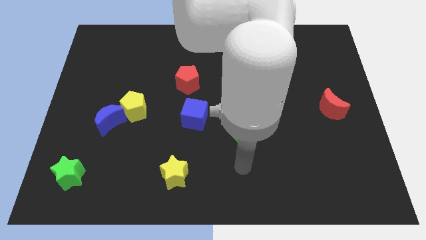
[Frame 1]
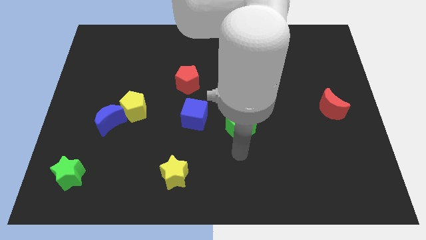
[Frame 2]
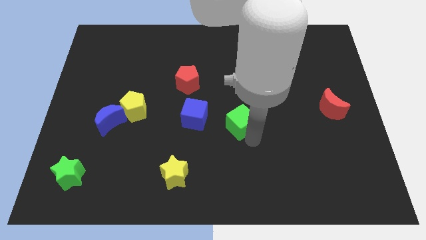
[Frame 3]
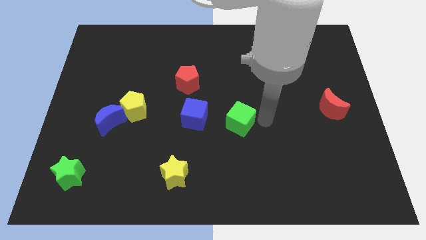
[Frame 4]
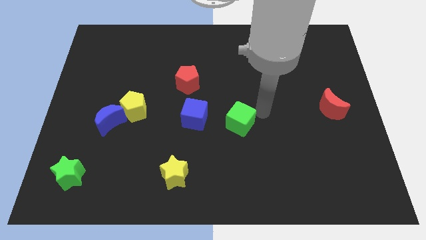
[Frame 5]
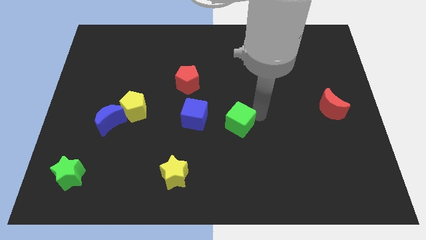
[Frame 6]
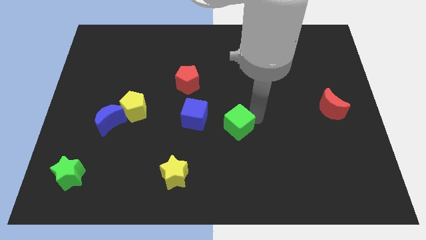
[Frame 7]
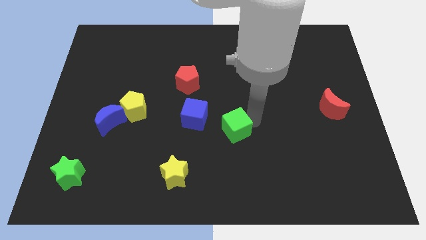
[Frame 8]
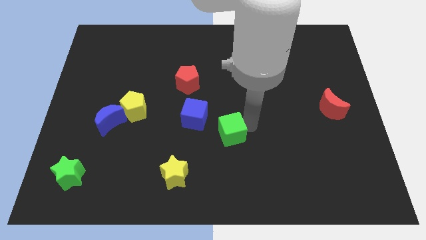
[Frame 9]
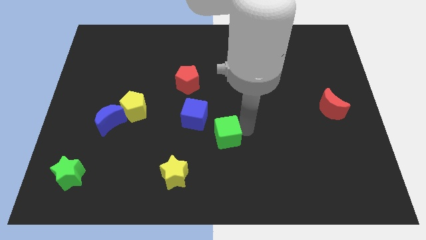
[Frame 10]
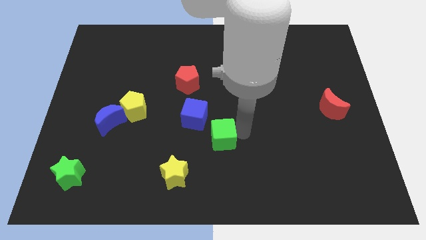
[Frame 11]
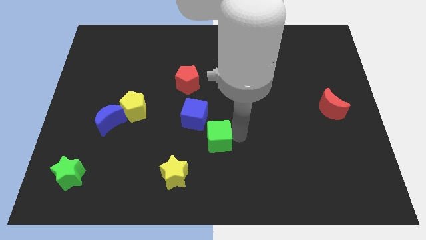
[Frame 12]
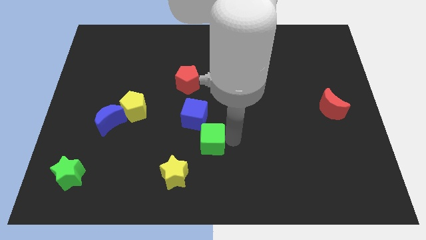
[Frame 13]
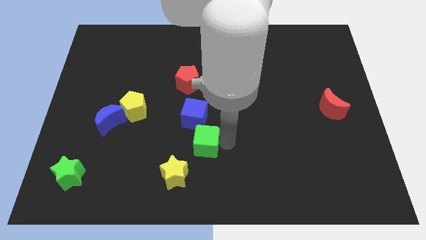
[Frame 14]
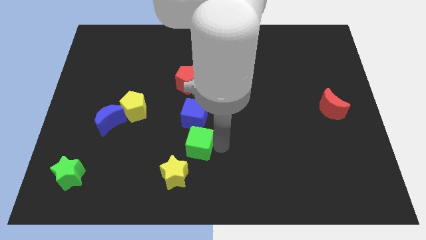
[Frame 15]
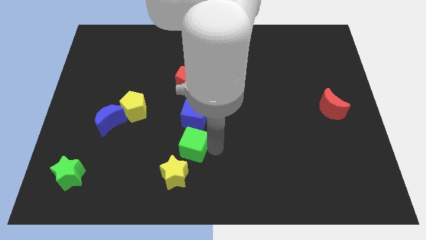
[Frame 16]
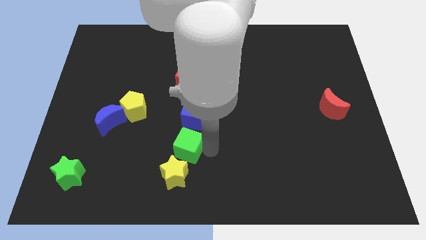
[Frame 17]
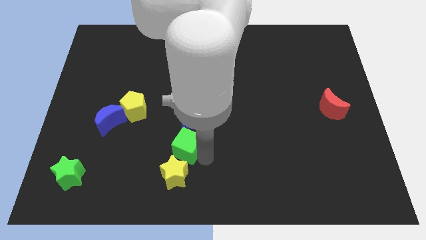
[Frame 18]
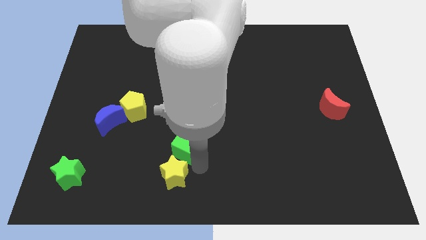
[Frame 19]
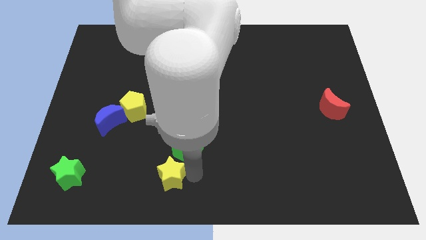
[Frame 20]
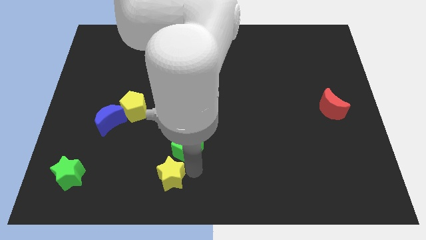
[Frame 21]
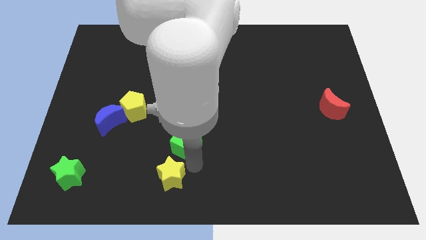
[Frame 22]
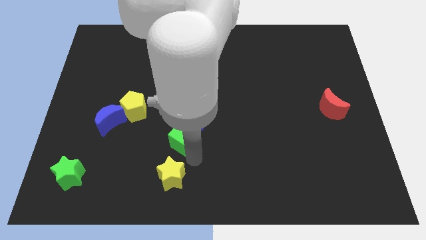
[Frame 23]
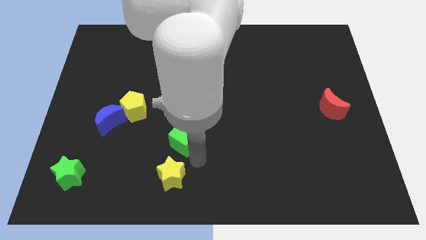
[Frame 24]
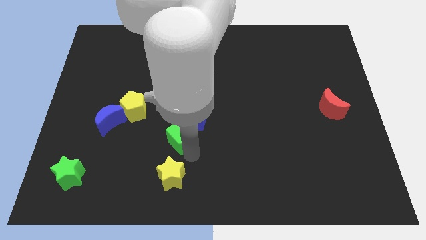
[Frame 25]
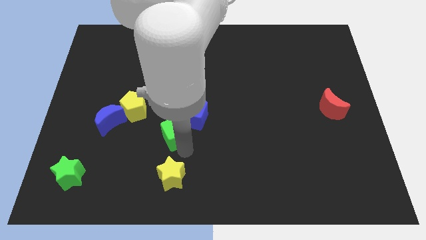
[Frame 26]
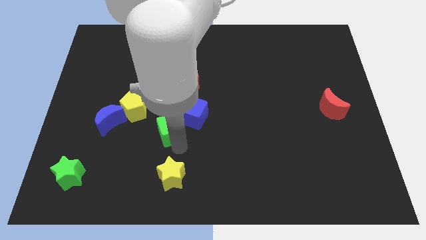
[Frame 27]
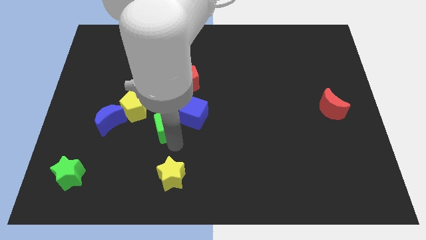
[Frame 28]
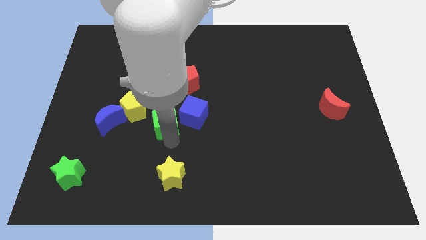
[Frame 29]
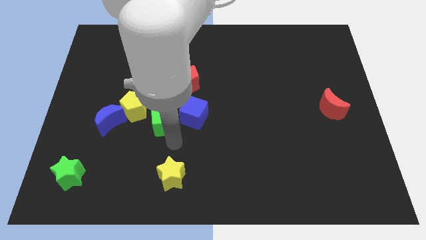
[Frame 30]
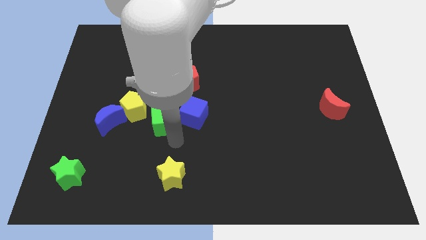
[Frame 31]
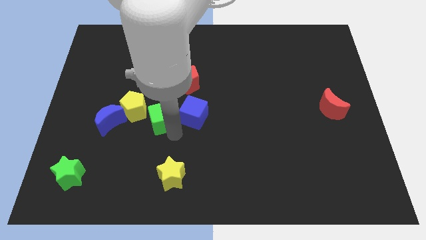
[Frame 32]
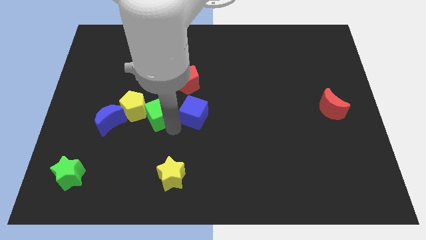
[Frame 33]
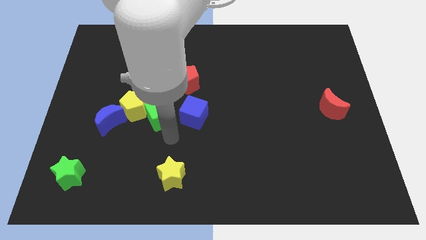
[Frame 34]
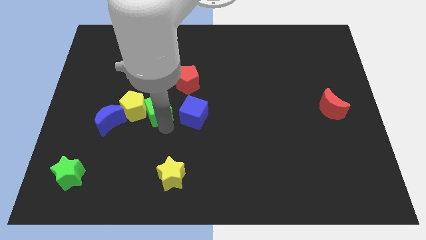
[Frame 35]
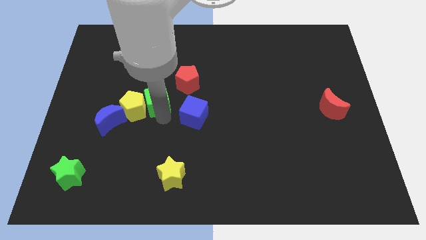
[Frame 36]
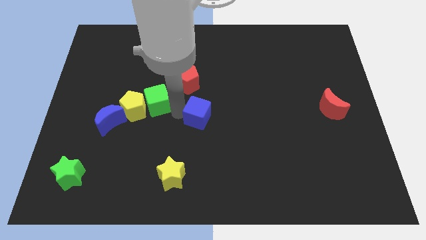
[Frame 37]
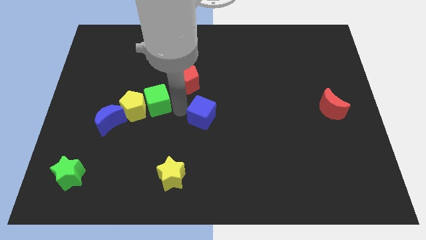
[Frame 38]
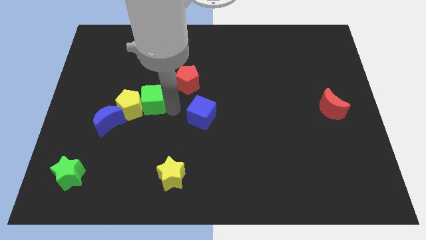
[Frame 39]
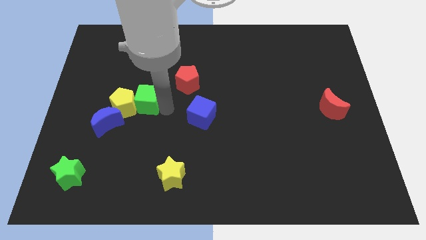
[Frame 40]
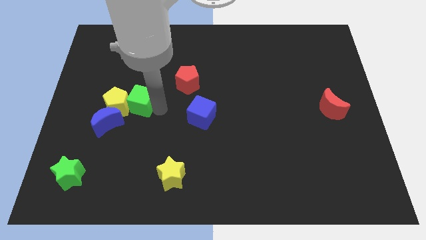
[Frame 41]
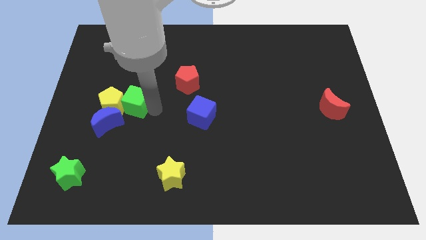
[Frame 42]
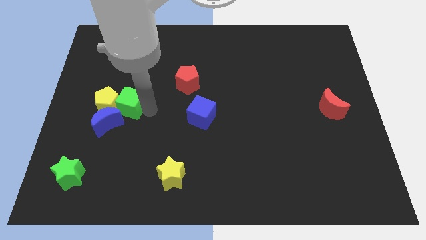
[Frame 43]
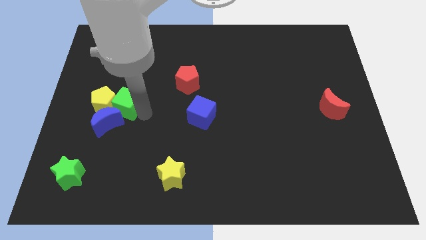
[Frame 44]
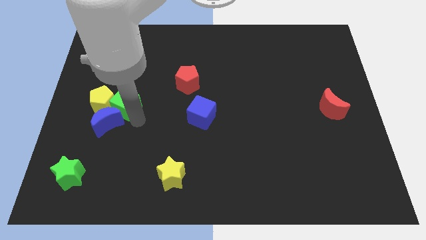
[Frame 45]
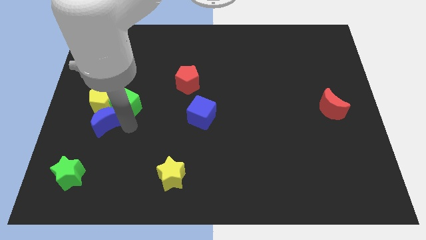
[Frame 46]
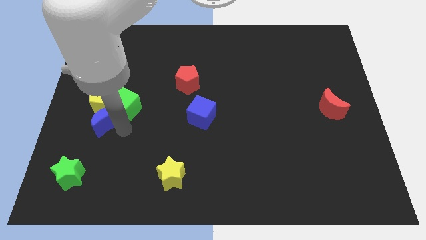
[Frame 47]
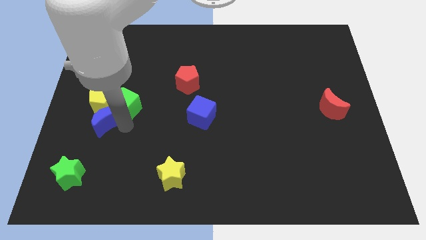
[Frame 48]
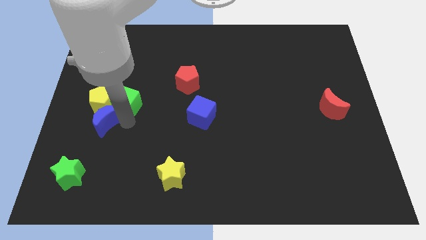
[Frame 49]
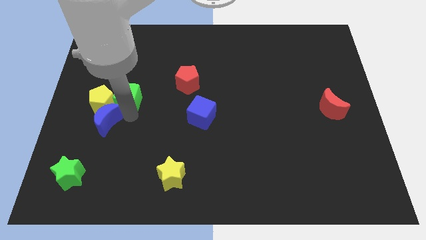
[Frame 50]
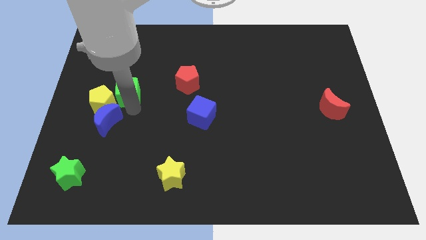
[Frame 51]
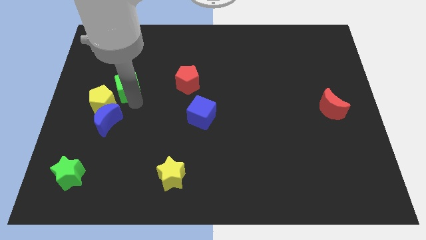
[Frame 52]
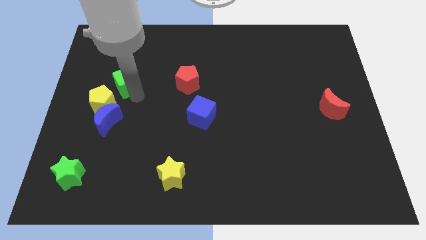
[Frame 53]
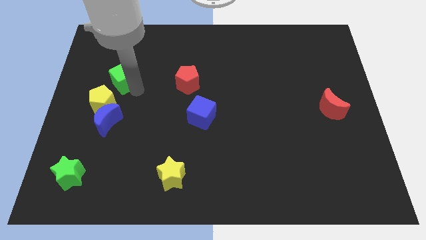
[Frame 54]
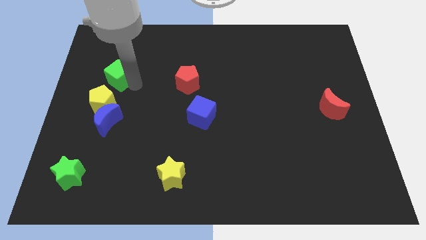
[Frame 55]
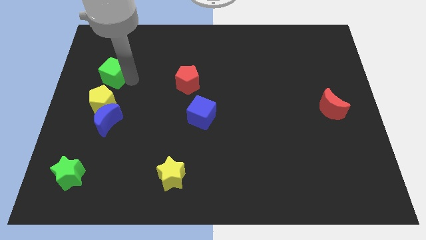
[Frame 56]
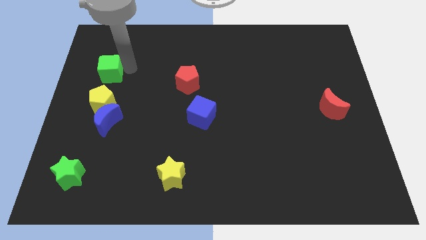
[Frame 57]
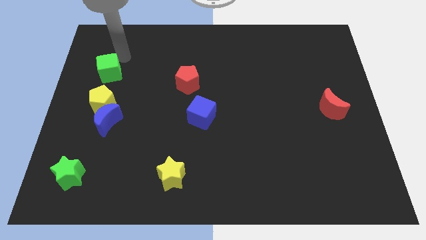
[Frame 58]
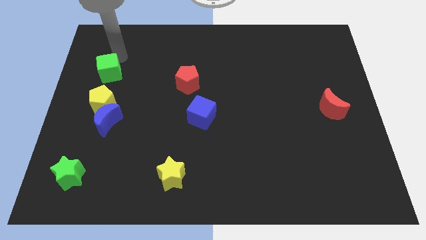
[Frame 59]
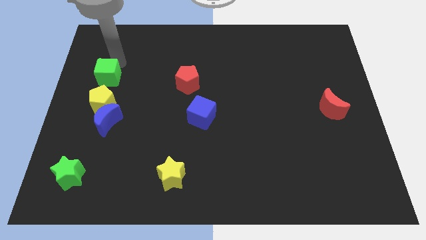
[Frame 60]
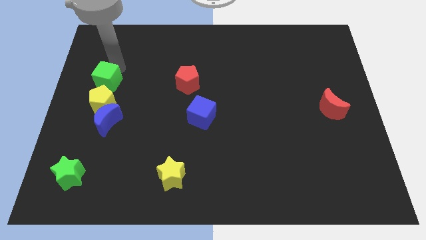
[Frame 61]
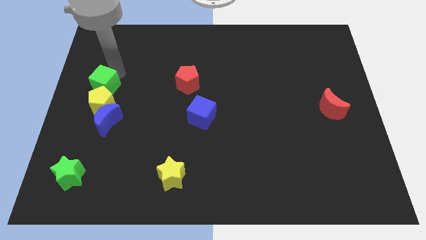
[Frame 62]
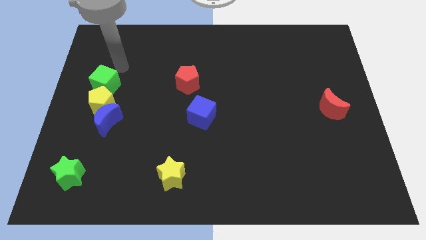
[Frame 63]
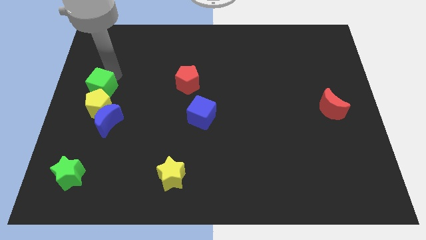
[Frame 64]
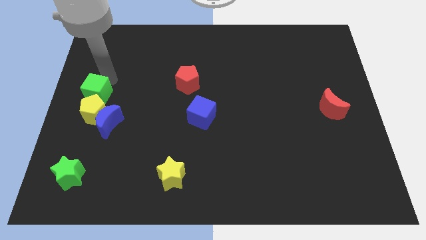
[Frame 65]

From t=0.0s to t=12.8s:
put the green cube to the top left side of the blue moon

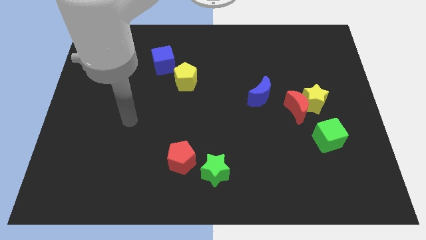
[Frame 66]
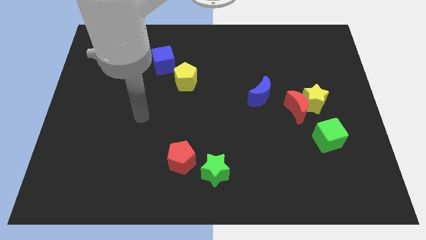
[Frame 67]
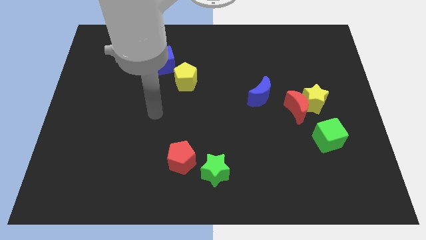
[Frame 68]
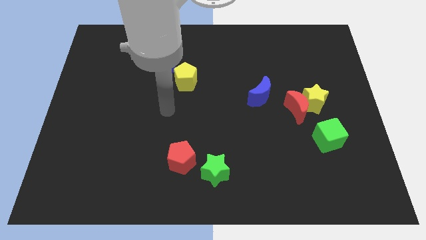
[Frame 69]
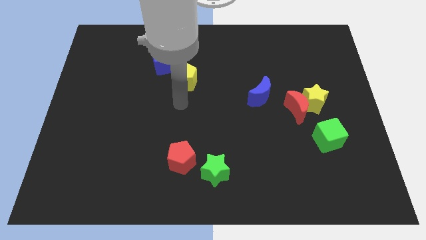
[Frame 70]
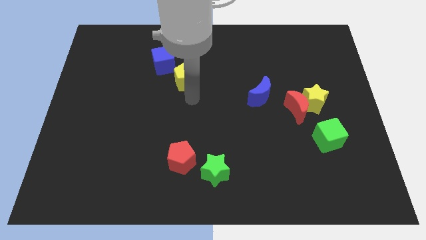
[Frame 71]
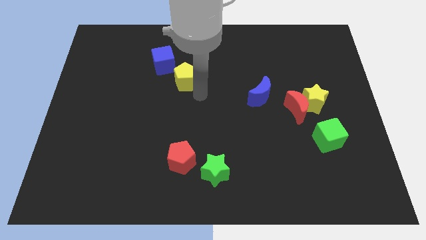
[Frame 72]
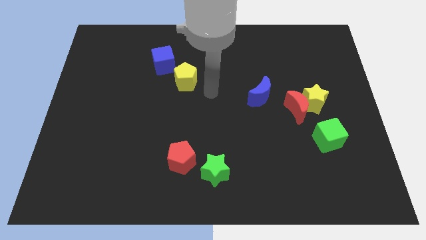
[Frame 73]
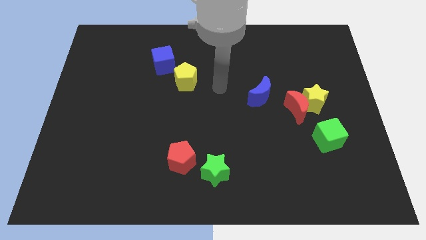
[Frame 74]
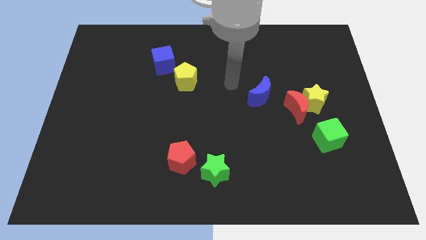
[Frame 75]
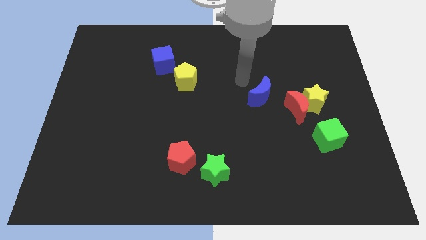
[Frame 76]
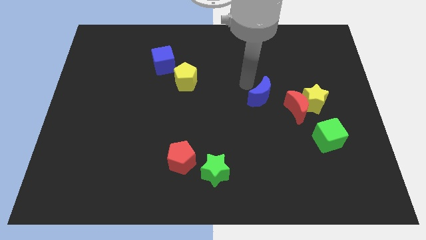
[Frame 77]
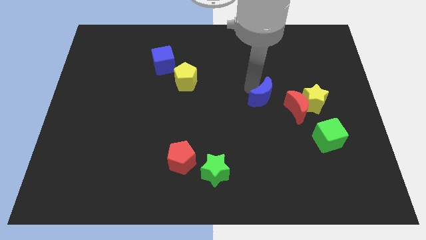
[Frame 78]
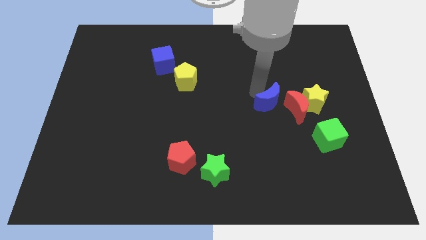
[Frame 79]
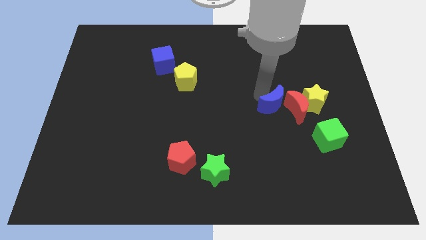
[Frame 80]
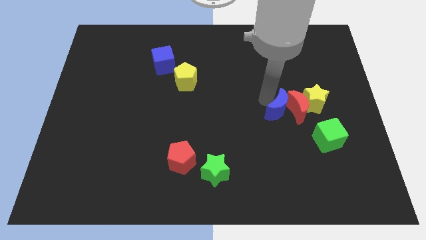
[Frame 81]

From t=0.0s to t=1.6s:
slide the blue moon to the bottom left of the yellow star
